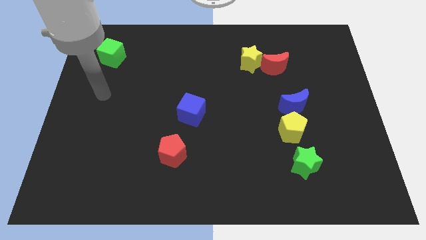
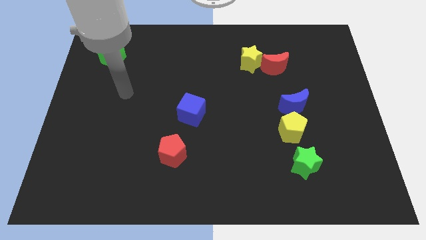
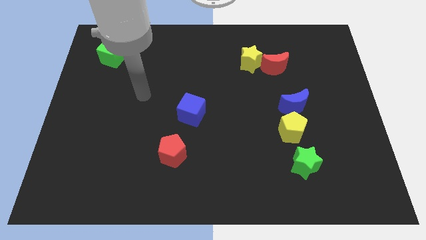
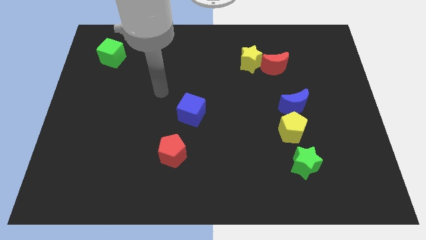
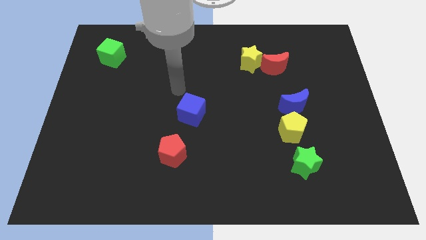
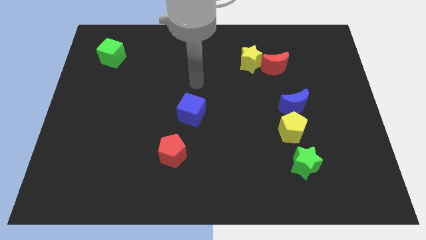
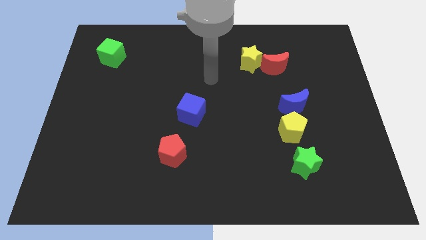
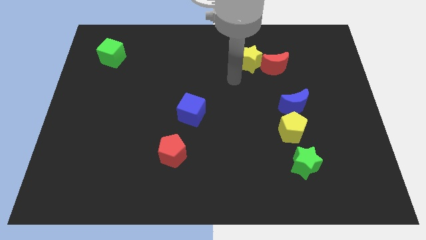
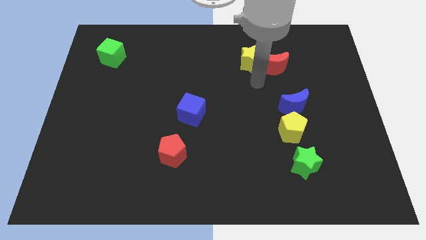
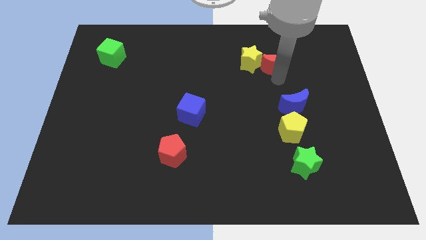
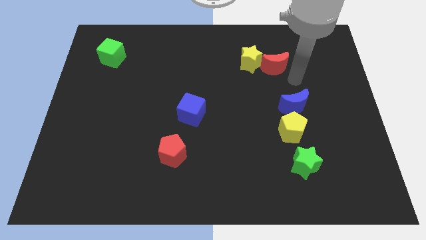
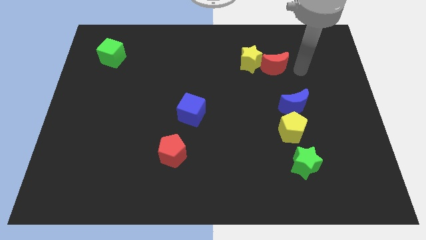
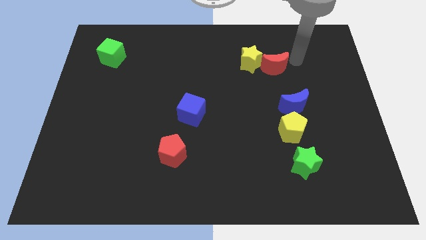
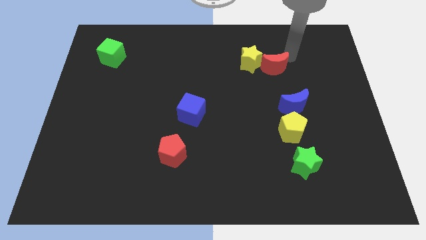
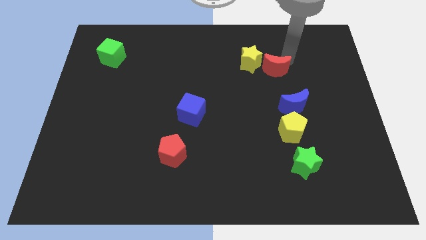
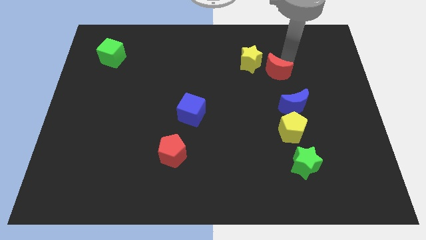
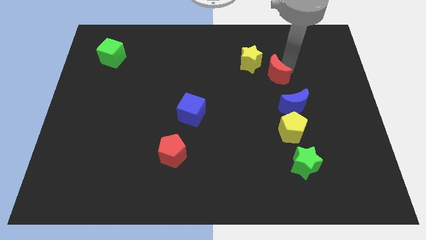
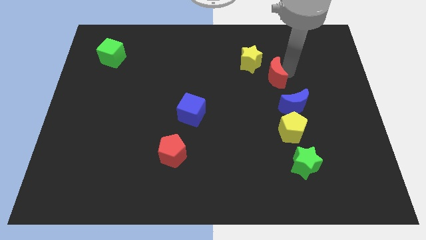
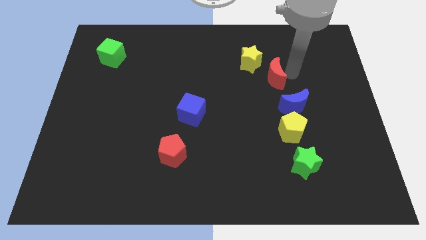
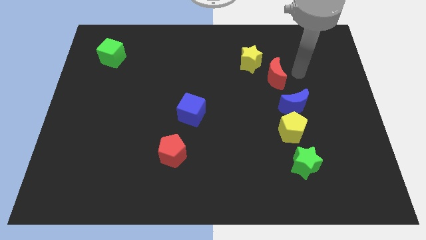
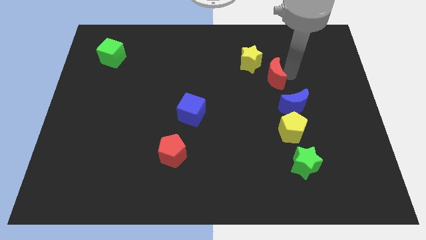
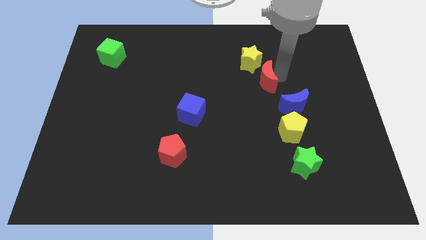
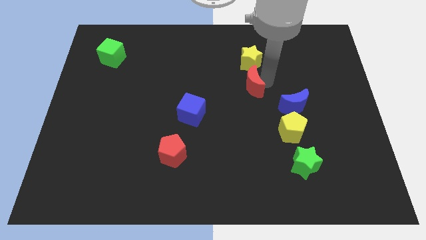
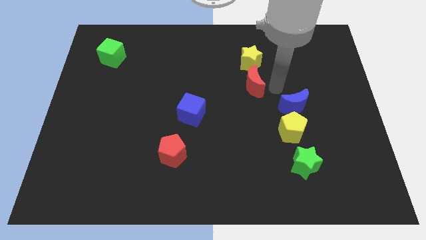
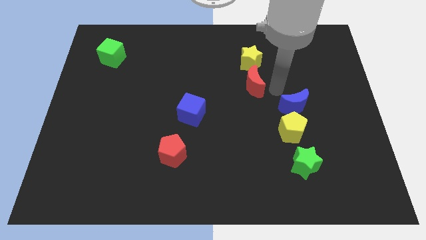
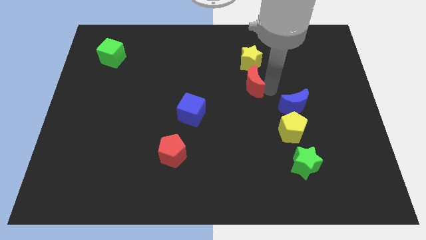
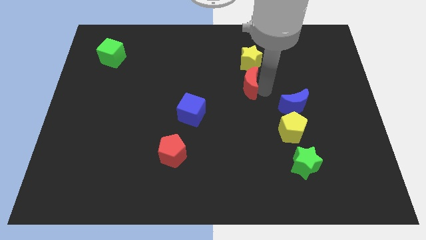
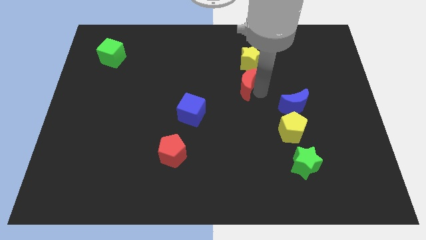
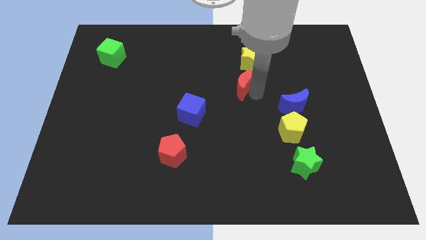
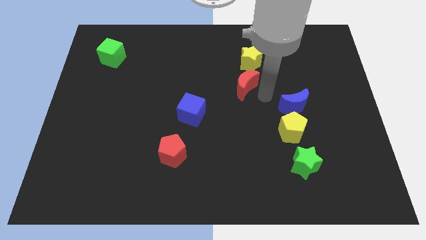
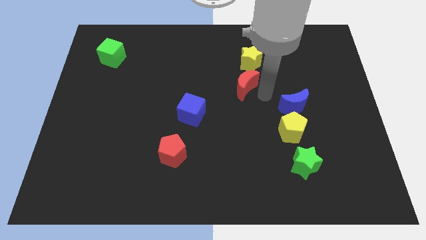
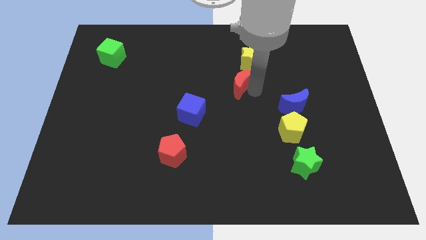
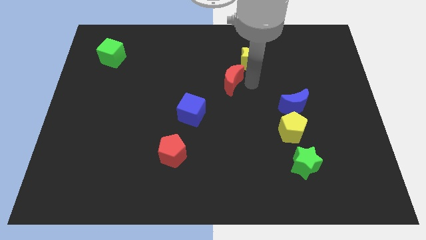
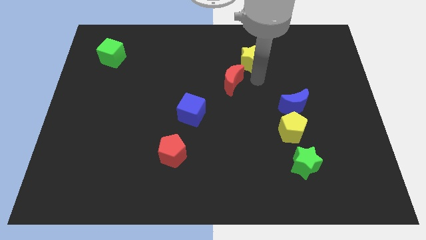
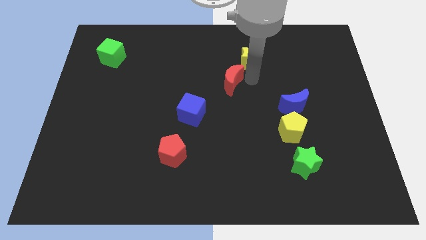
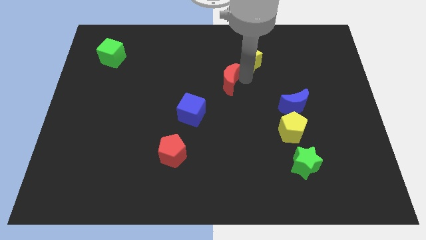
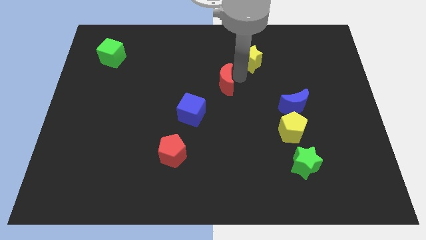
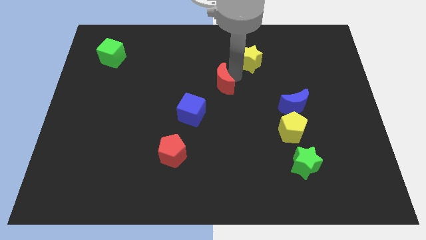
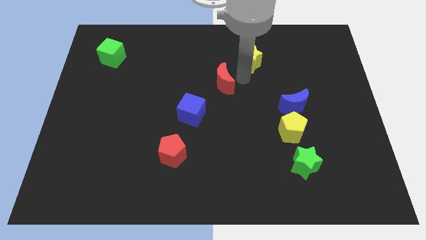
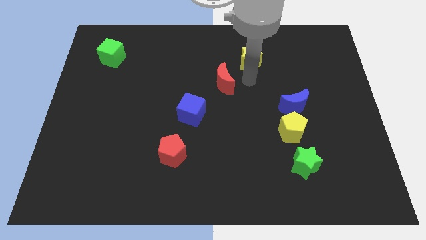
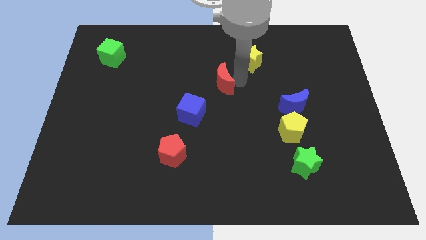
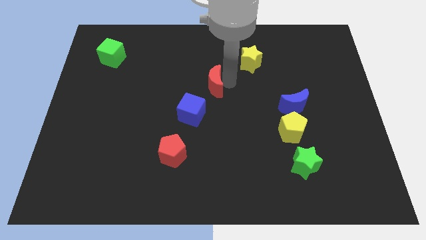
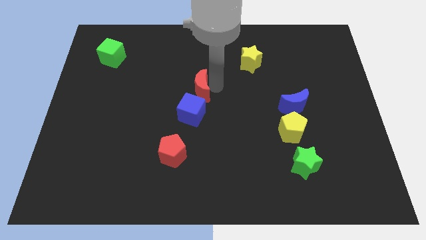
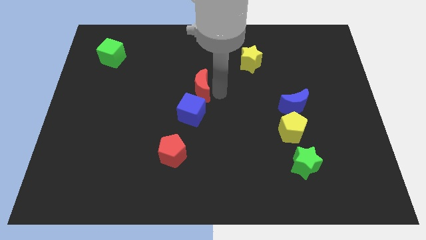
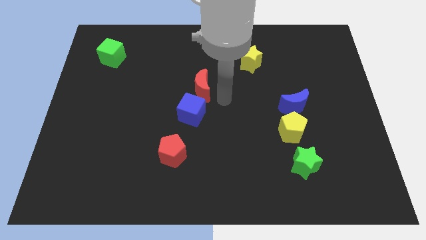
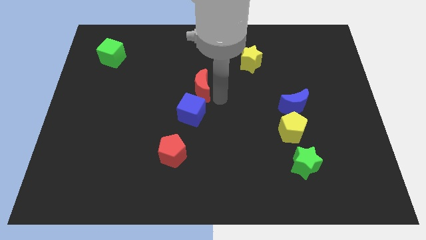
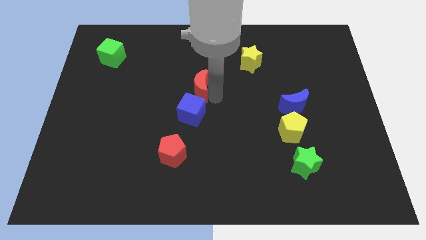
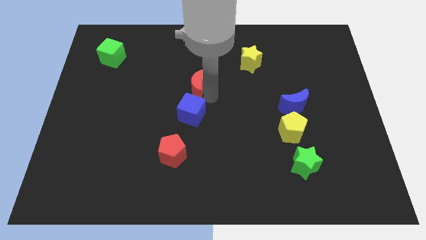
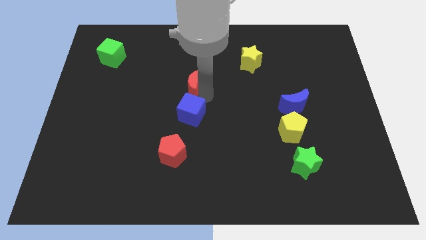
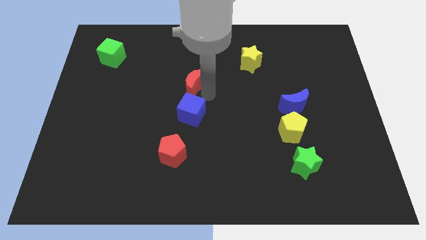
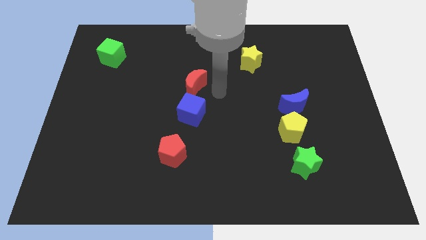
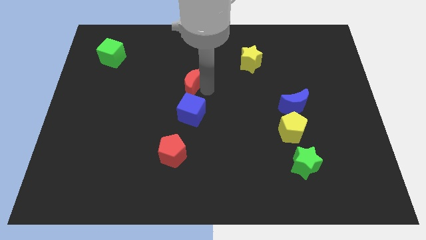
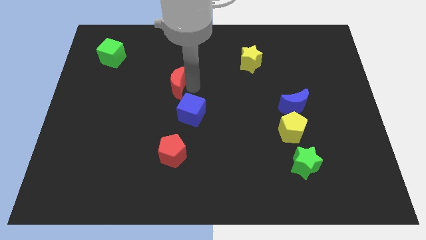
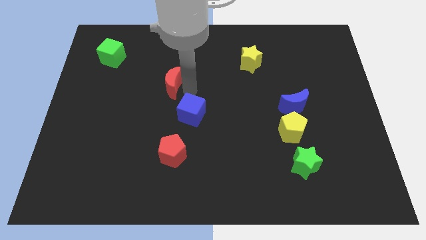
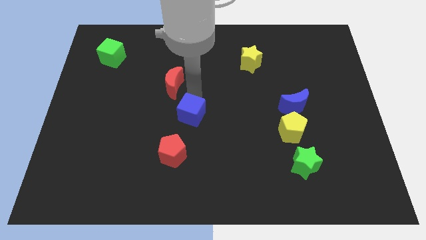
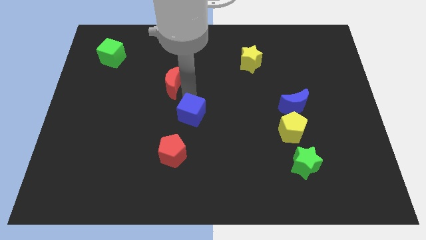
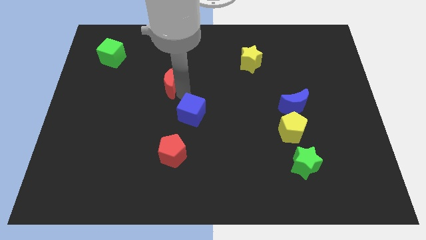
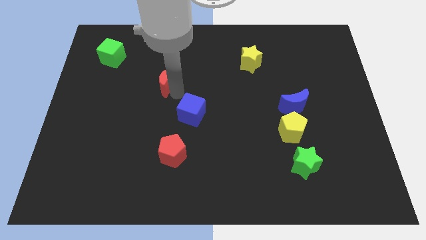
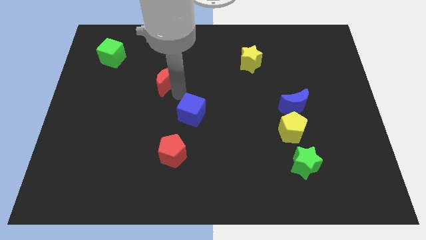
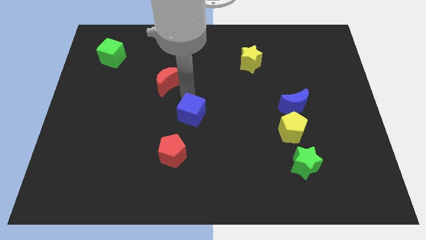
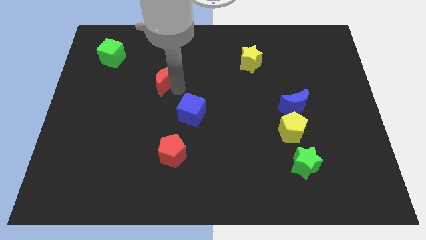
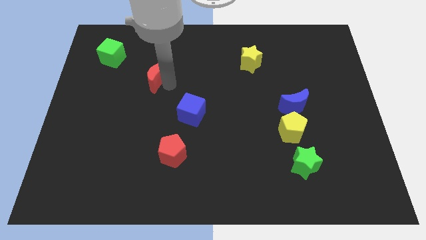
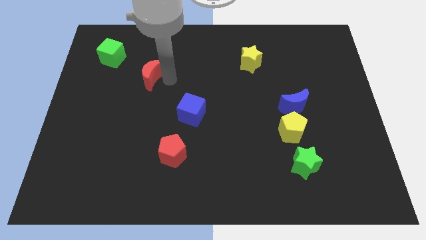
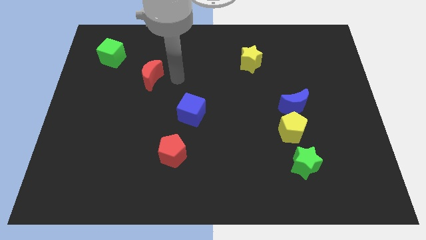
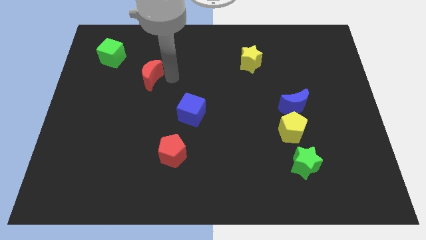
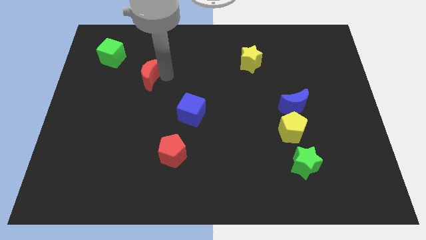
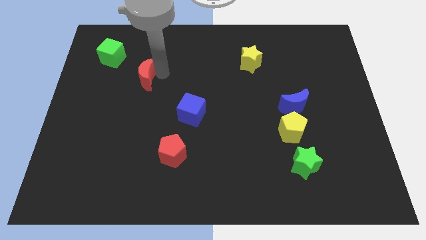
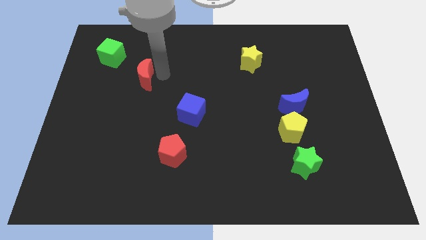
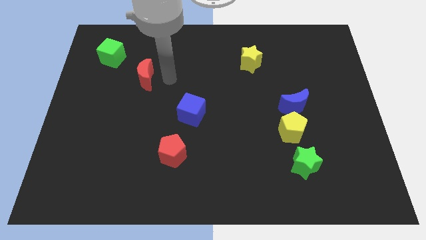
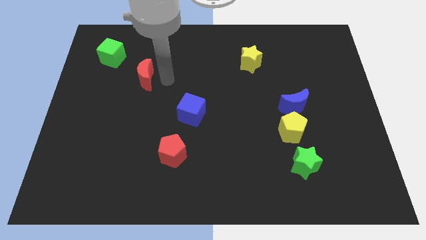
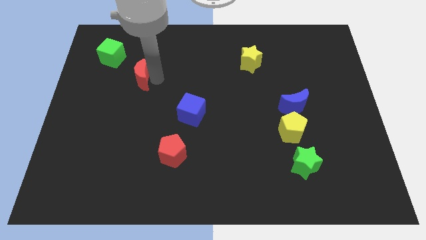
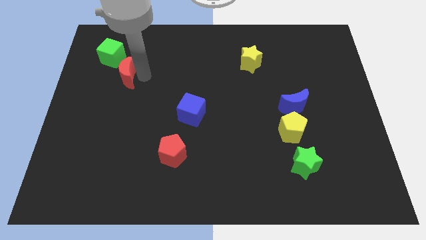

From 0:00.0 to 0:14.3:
push the red moon to the bottom of the green cube
